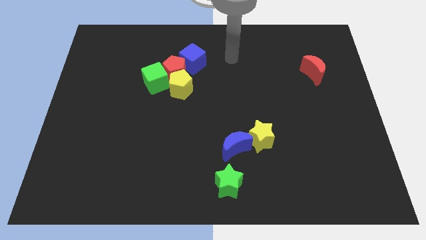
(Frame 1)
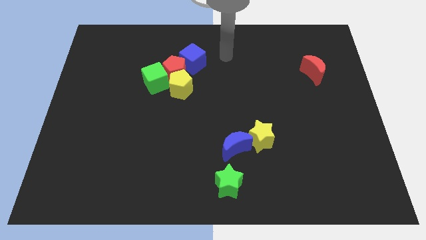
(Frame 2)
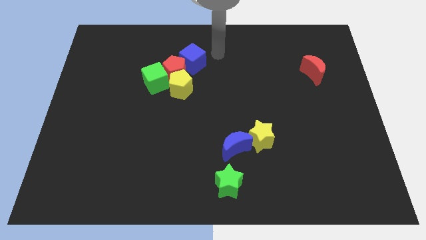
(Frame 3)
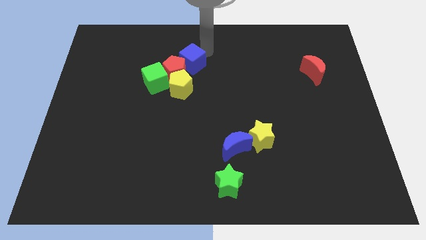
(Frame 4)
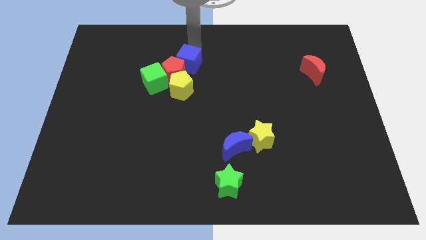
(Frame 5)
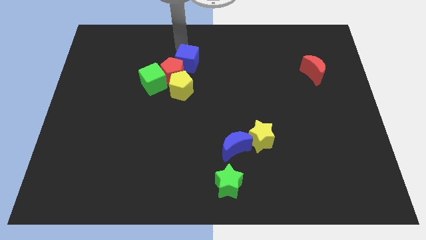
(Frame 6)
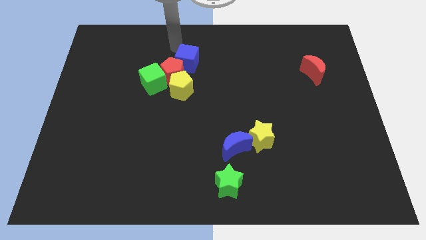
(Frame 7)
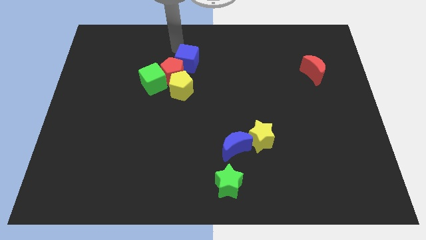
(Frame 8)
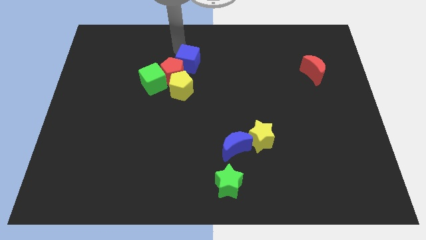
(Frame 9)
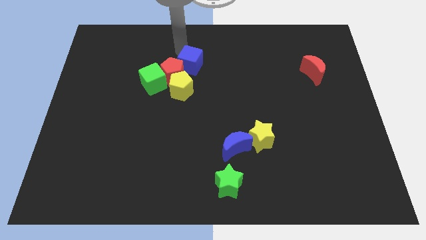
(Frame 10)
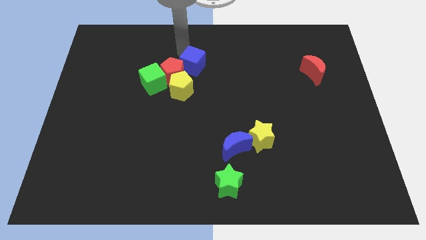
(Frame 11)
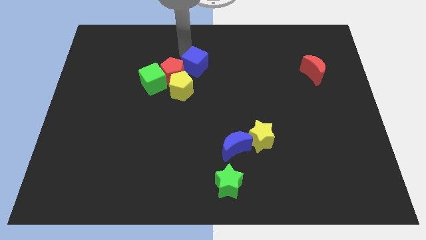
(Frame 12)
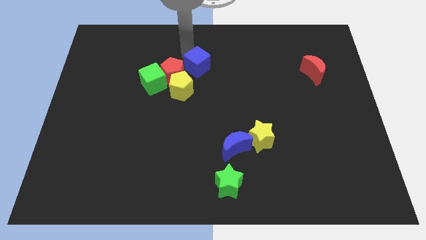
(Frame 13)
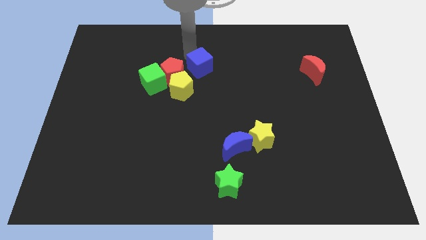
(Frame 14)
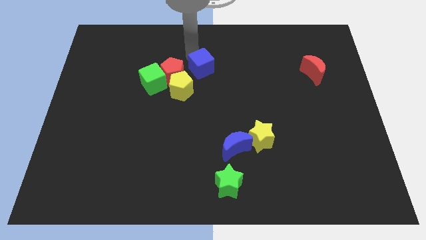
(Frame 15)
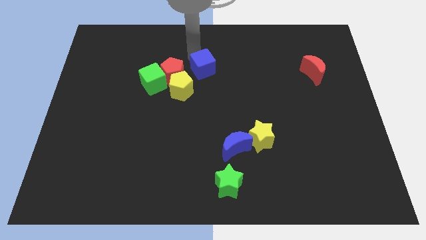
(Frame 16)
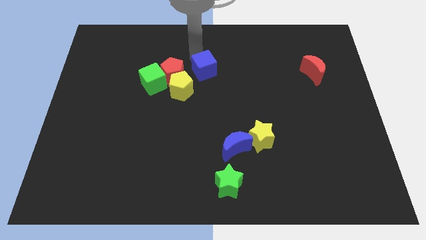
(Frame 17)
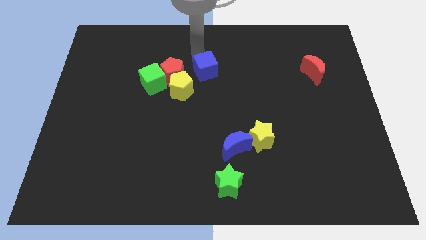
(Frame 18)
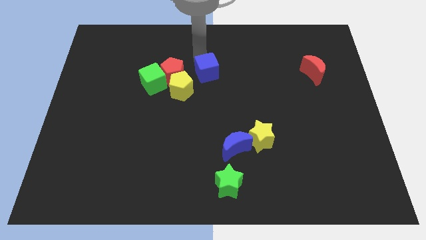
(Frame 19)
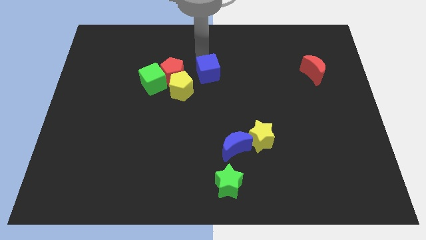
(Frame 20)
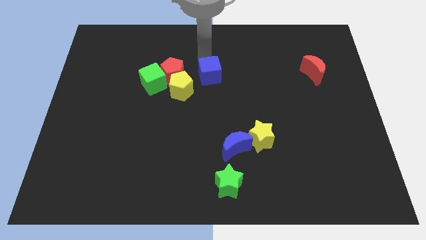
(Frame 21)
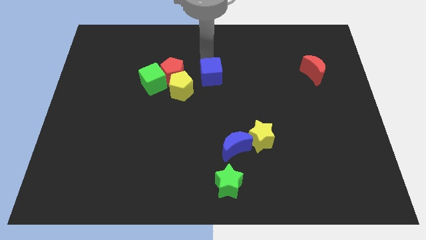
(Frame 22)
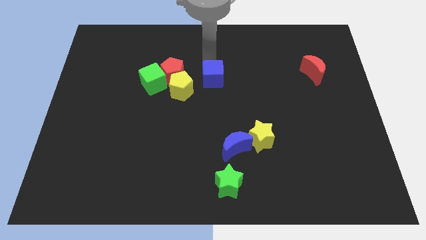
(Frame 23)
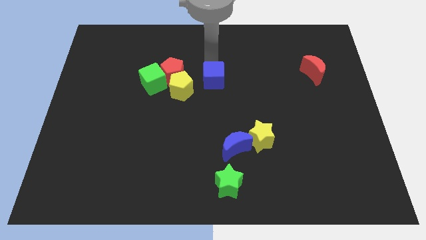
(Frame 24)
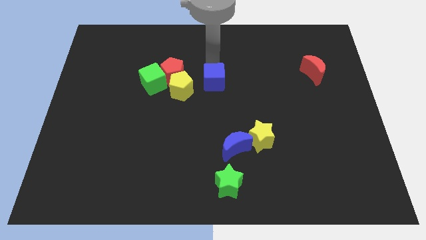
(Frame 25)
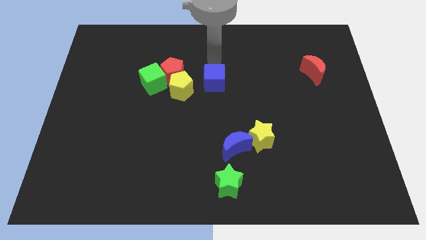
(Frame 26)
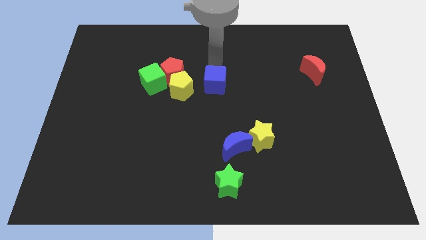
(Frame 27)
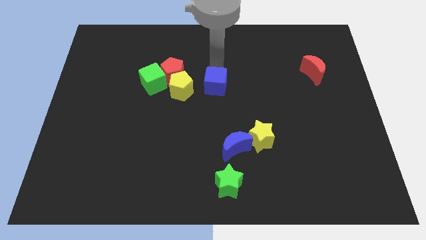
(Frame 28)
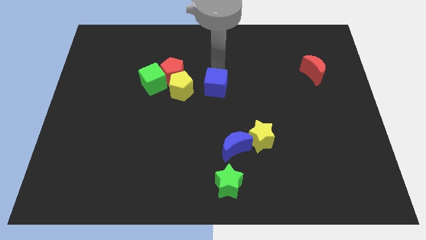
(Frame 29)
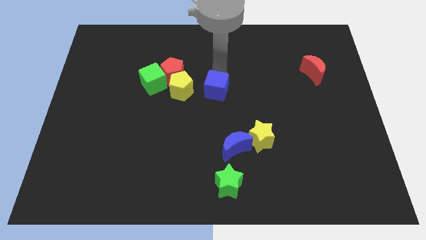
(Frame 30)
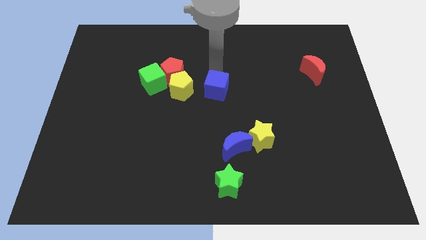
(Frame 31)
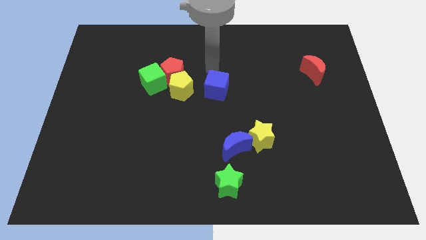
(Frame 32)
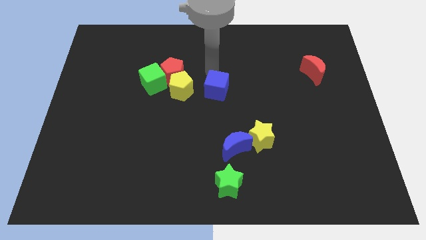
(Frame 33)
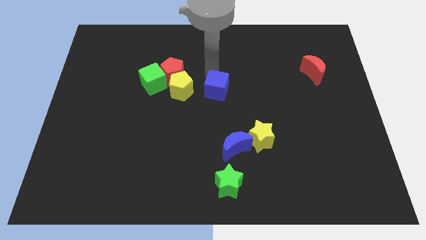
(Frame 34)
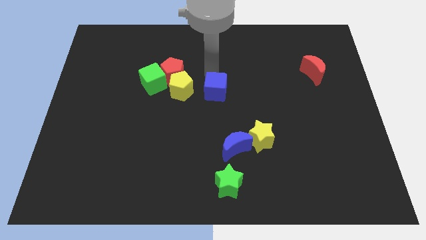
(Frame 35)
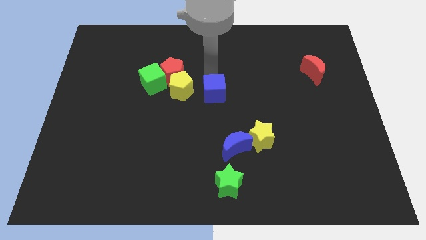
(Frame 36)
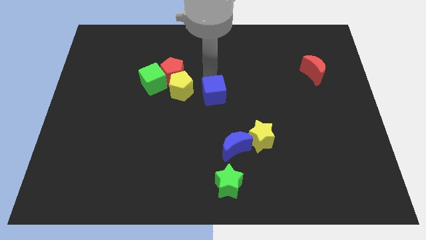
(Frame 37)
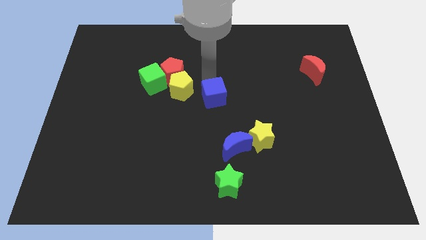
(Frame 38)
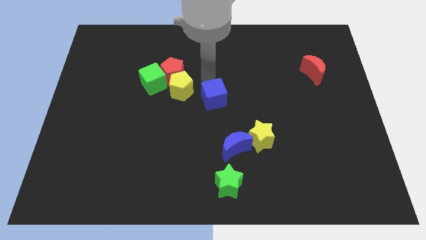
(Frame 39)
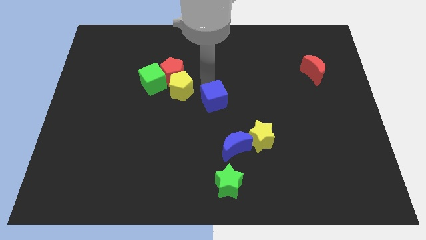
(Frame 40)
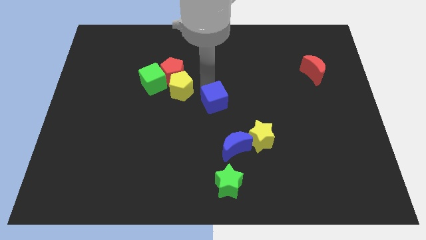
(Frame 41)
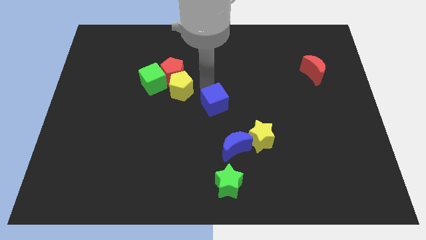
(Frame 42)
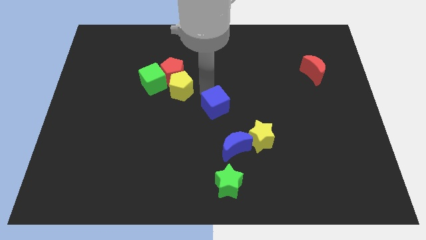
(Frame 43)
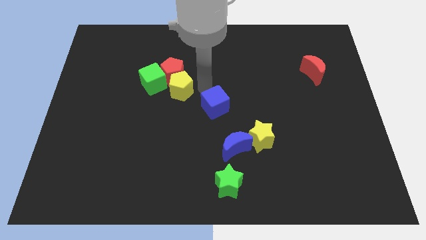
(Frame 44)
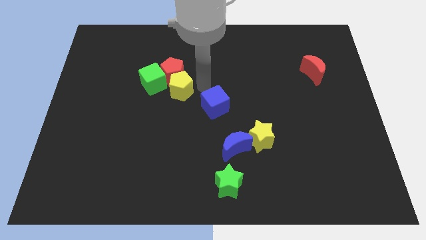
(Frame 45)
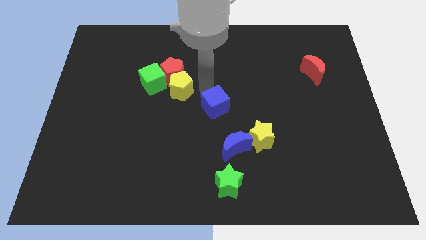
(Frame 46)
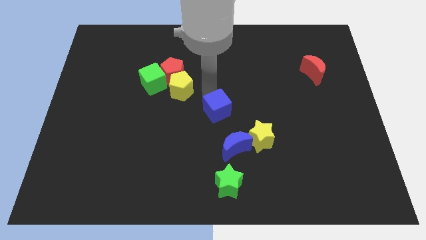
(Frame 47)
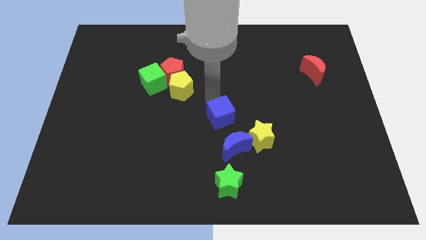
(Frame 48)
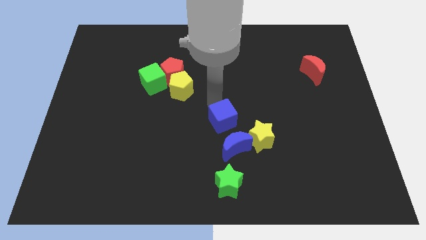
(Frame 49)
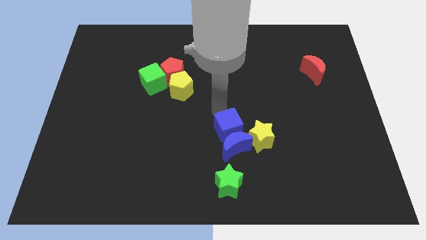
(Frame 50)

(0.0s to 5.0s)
move the blue cube towards the blue moon

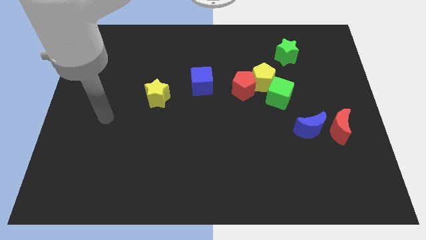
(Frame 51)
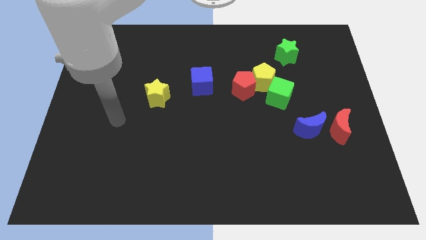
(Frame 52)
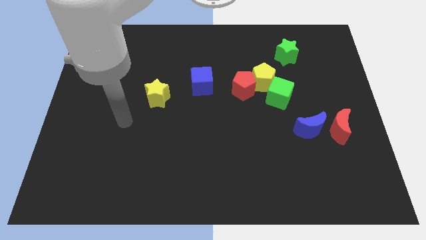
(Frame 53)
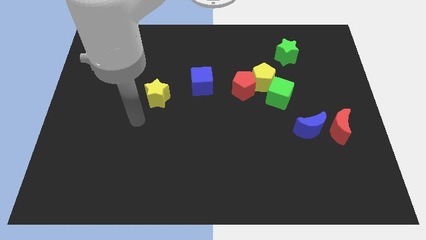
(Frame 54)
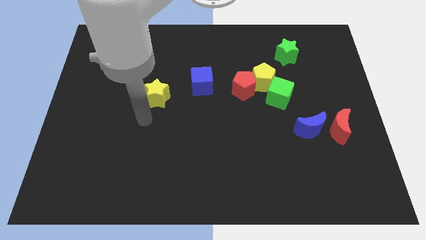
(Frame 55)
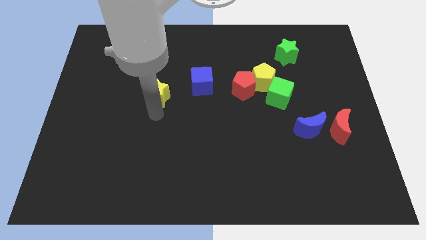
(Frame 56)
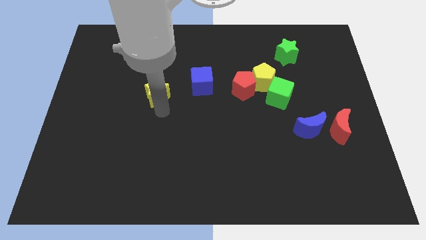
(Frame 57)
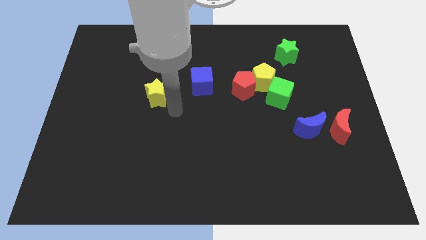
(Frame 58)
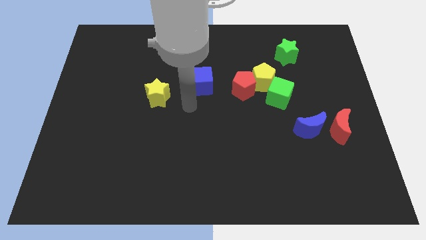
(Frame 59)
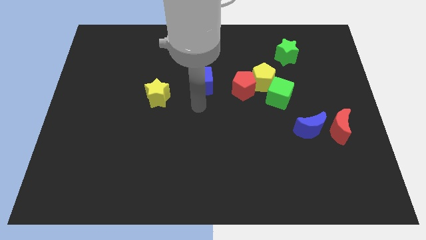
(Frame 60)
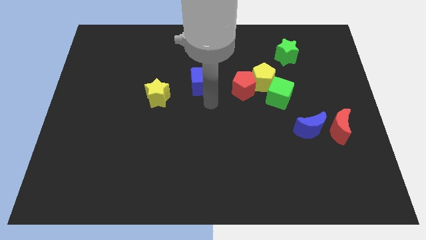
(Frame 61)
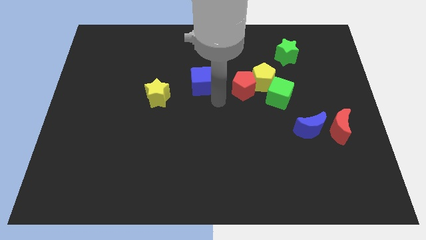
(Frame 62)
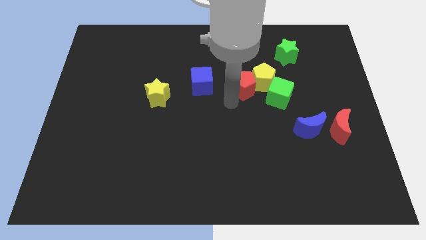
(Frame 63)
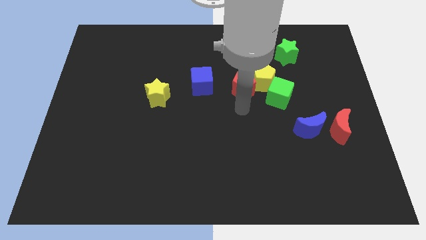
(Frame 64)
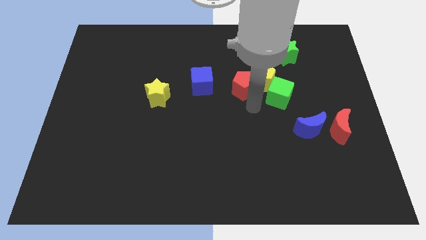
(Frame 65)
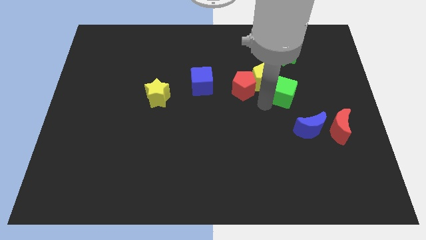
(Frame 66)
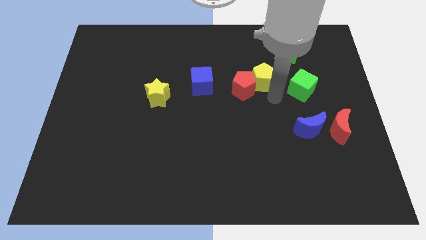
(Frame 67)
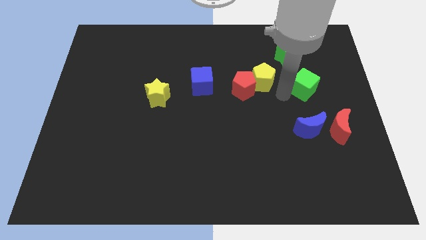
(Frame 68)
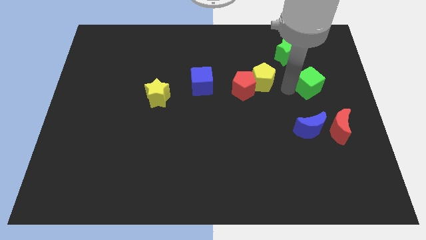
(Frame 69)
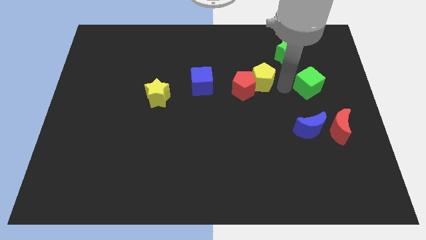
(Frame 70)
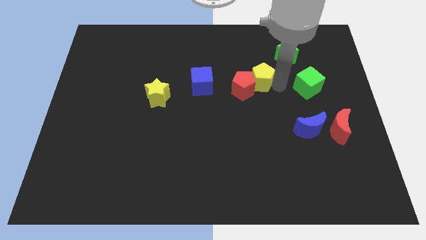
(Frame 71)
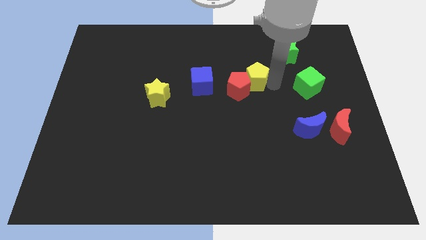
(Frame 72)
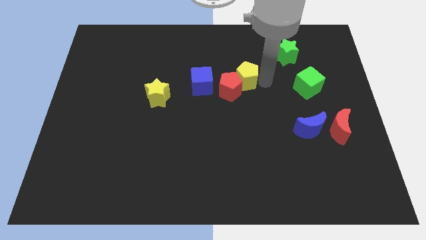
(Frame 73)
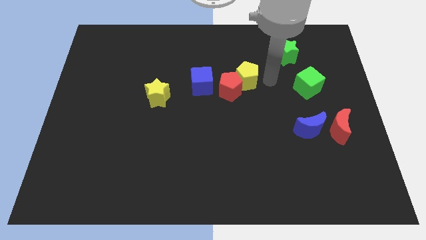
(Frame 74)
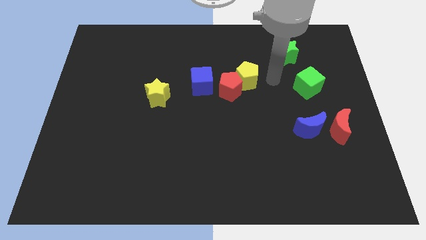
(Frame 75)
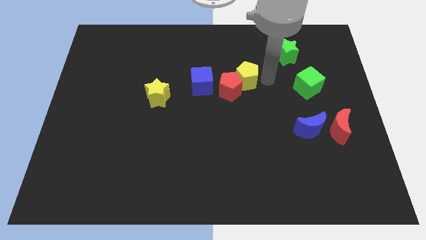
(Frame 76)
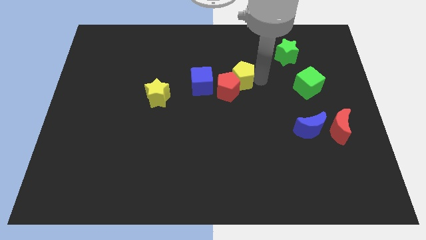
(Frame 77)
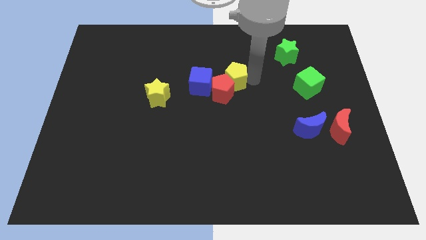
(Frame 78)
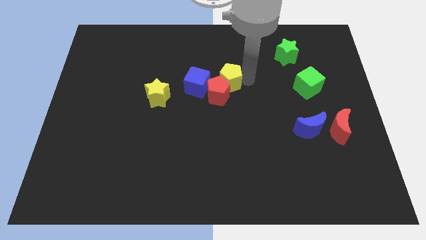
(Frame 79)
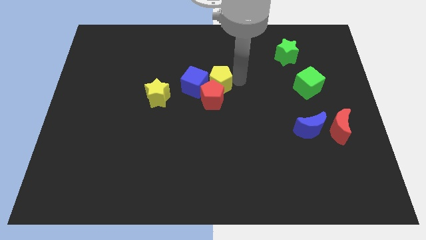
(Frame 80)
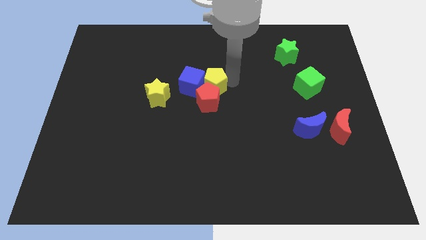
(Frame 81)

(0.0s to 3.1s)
move the yellow pentagon to the blue cube
